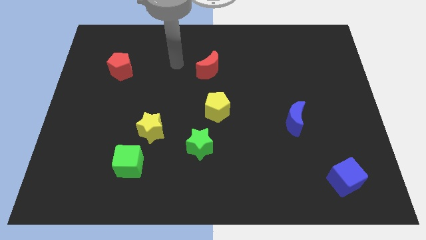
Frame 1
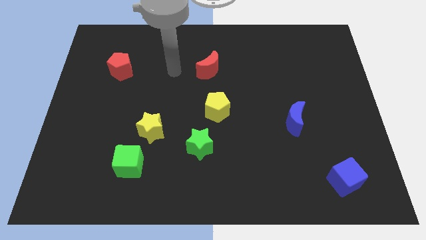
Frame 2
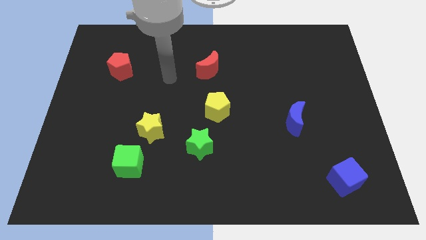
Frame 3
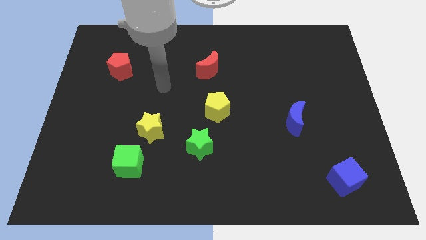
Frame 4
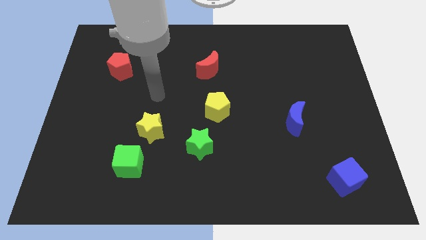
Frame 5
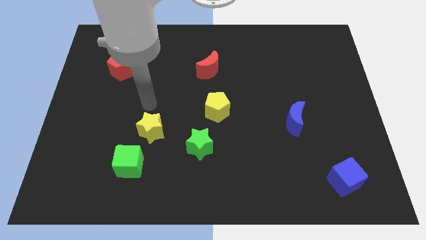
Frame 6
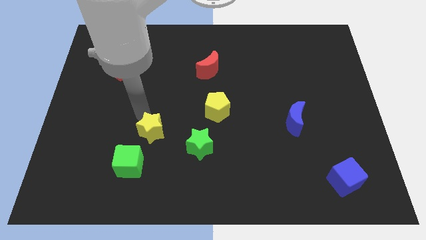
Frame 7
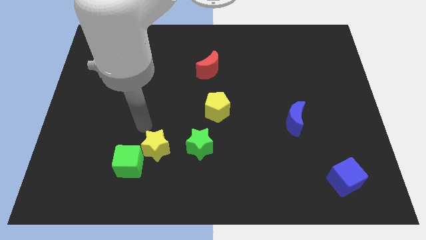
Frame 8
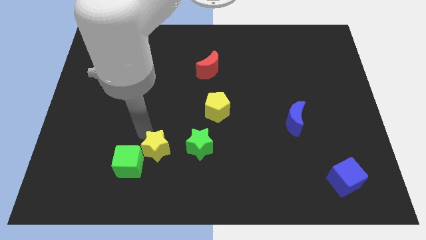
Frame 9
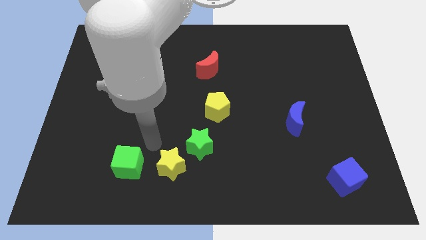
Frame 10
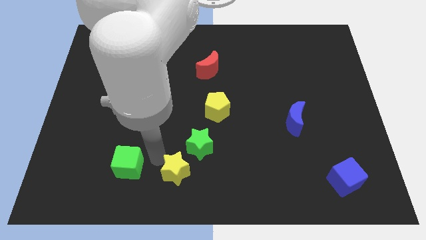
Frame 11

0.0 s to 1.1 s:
pull the green cube apart from the yellow star

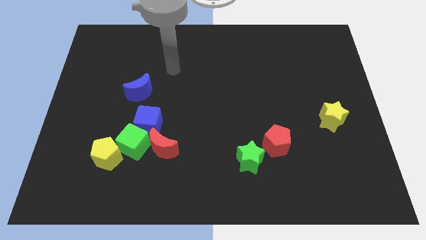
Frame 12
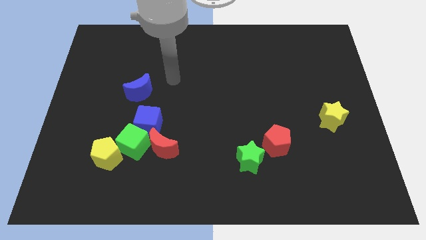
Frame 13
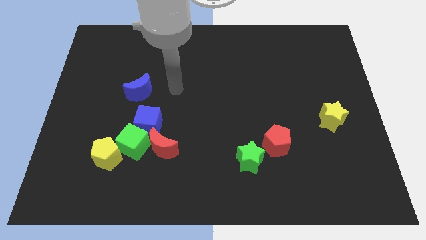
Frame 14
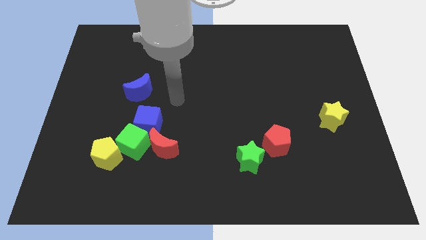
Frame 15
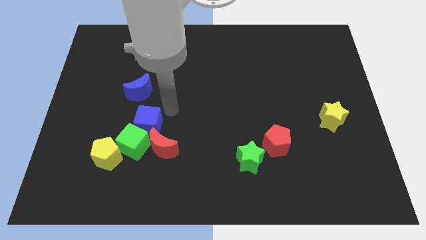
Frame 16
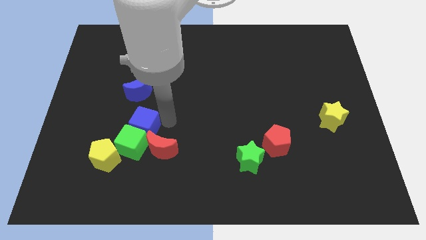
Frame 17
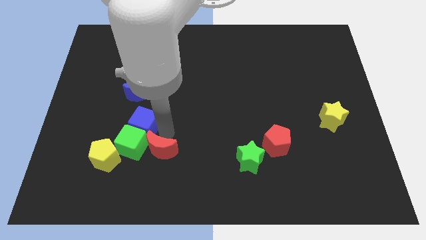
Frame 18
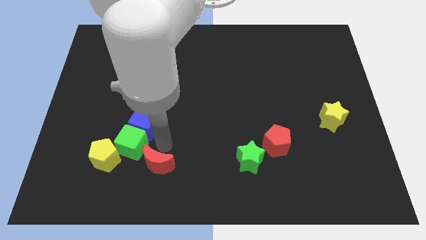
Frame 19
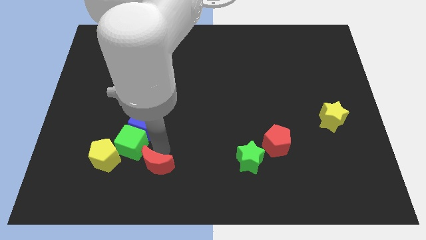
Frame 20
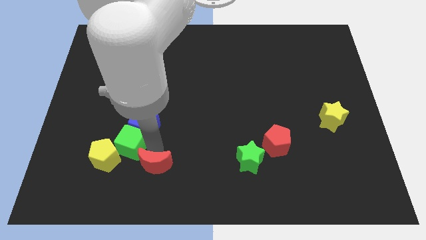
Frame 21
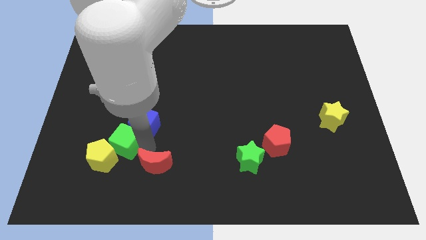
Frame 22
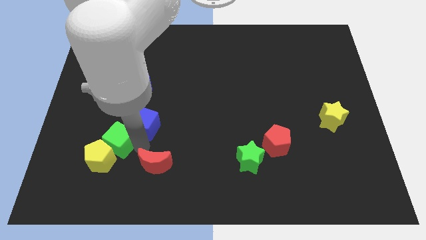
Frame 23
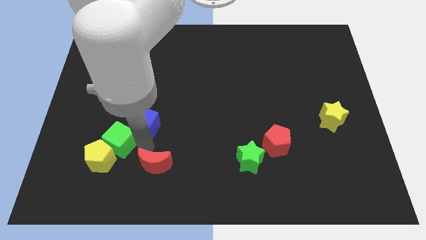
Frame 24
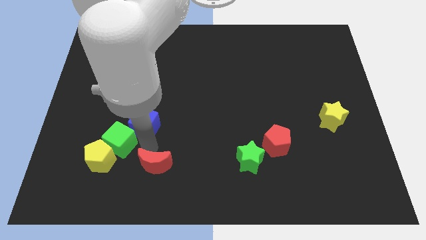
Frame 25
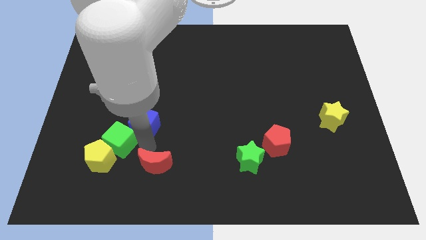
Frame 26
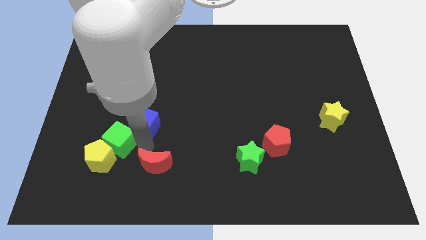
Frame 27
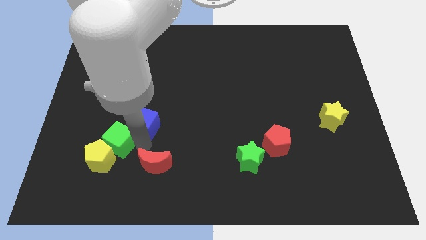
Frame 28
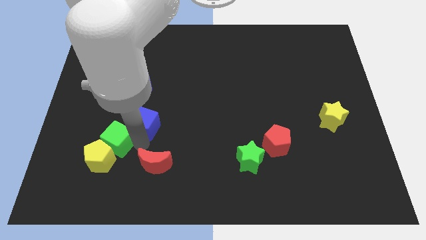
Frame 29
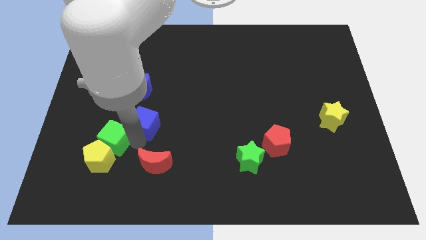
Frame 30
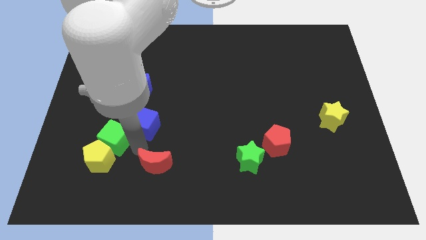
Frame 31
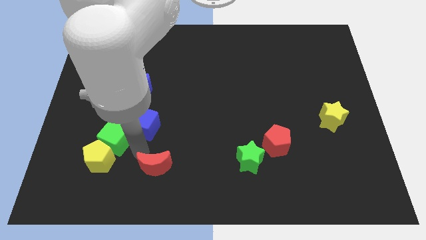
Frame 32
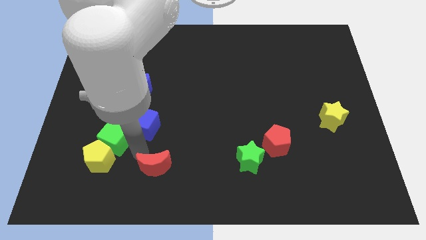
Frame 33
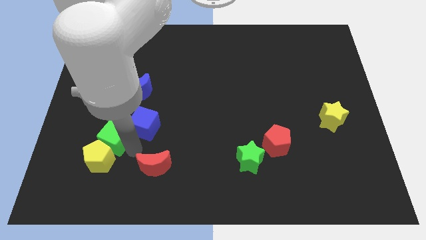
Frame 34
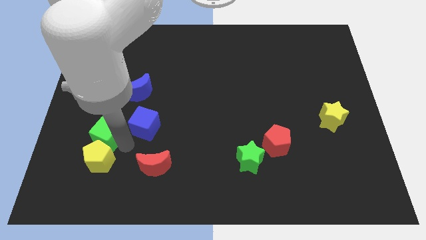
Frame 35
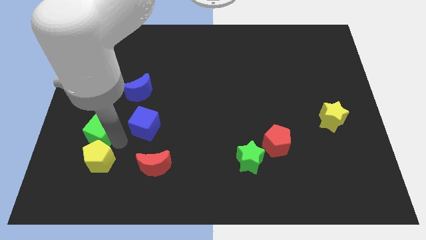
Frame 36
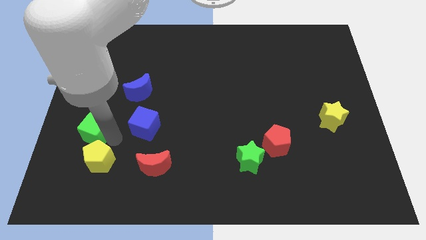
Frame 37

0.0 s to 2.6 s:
pull the green cube apart from the blue cube, yellow pentagon, and red moon

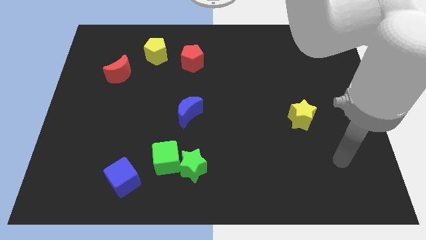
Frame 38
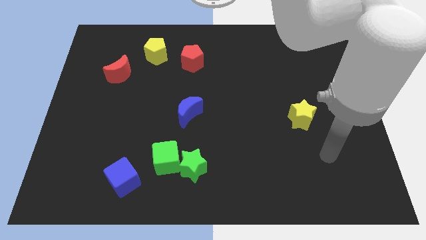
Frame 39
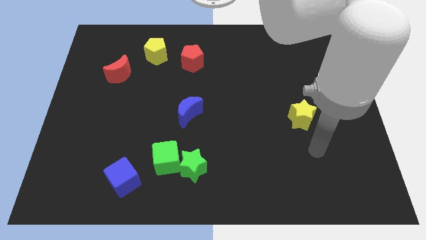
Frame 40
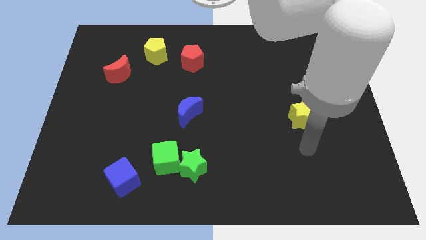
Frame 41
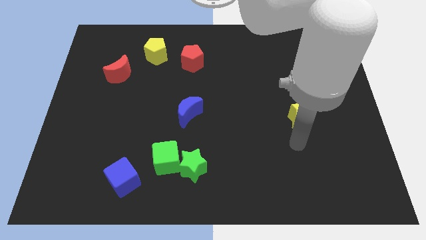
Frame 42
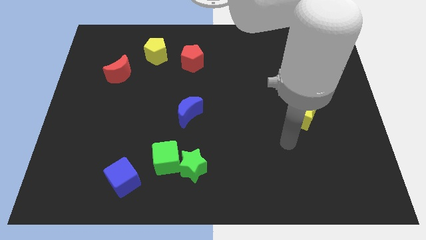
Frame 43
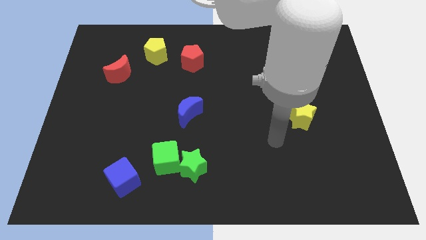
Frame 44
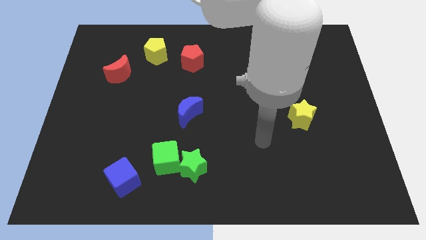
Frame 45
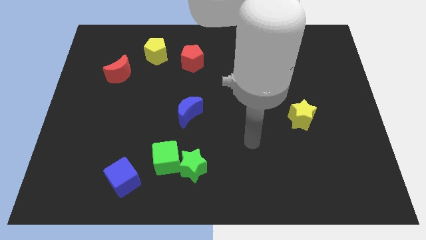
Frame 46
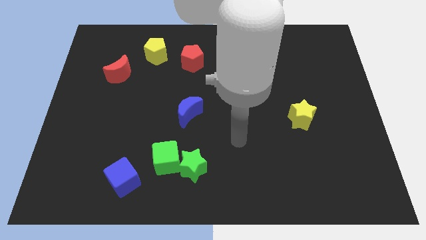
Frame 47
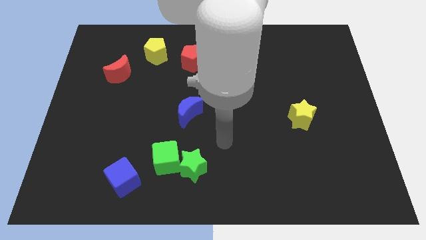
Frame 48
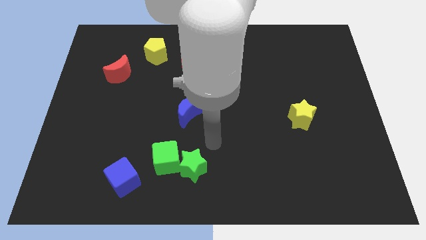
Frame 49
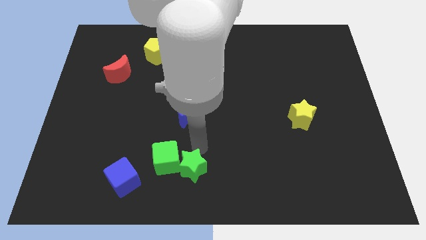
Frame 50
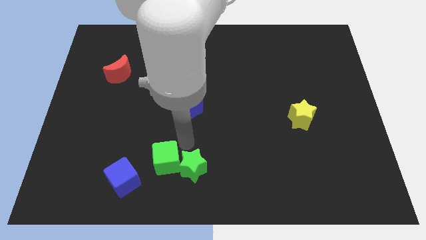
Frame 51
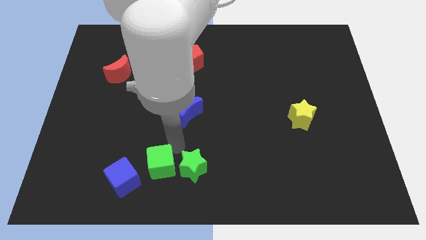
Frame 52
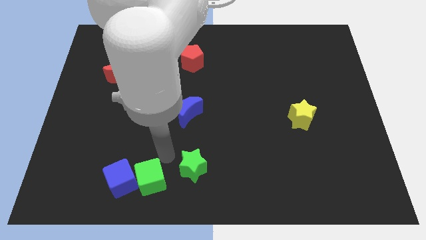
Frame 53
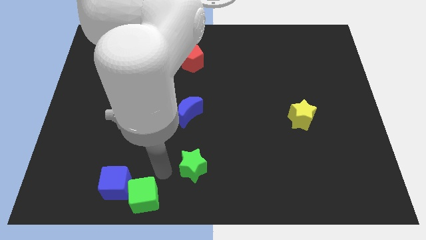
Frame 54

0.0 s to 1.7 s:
separate the green star from the green cube

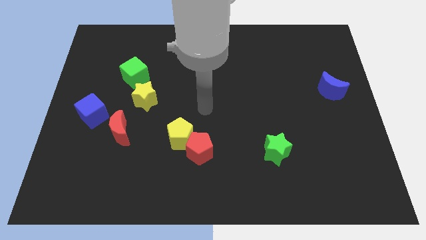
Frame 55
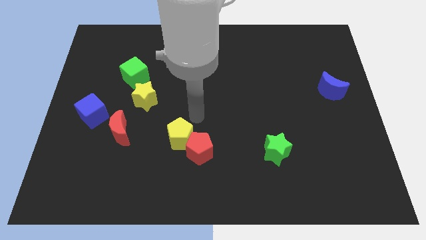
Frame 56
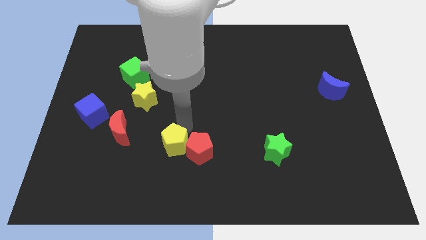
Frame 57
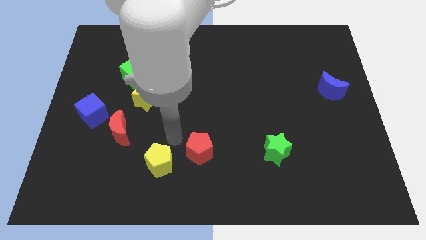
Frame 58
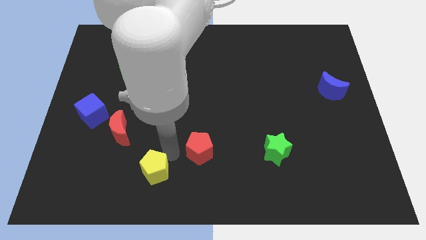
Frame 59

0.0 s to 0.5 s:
separate the red pentagon from the yellow pentagon

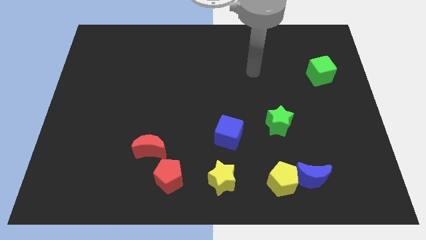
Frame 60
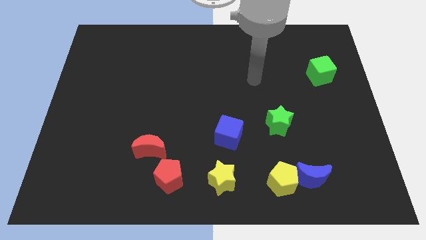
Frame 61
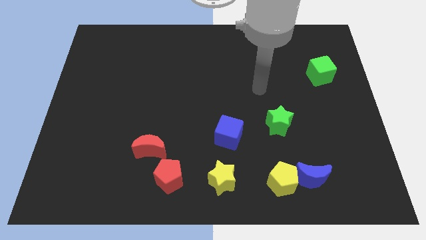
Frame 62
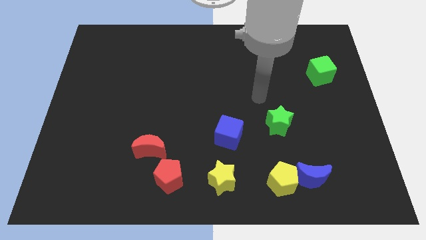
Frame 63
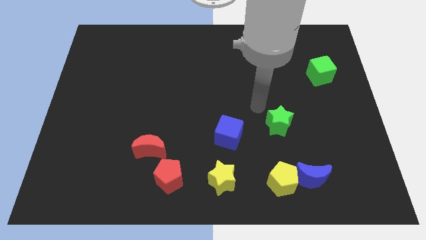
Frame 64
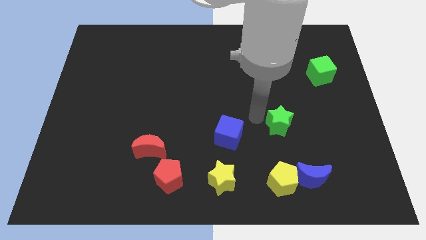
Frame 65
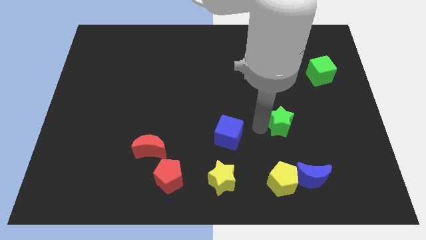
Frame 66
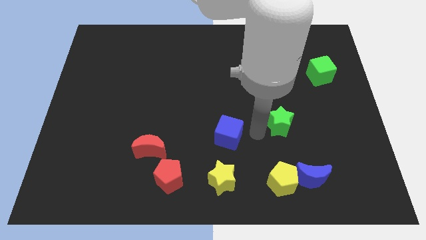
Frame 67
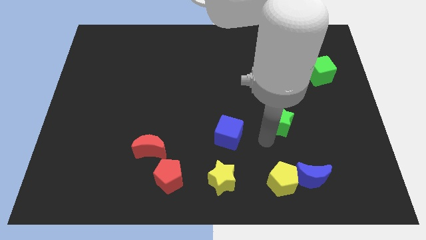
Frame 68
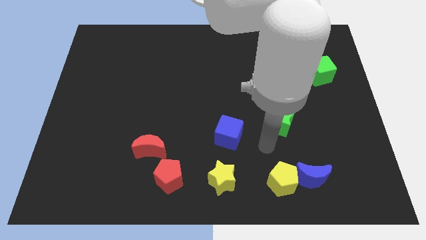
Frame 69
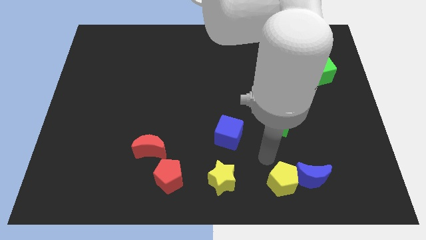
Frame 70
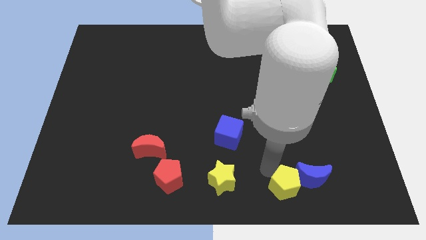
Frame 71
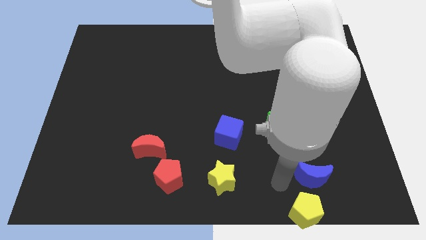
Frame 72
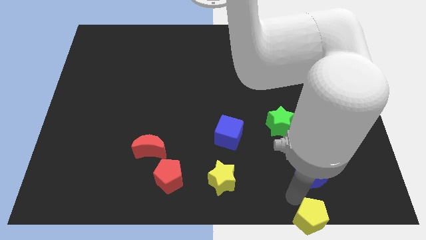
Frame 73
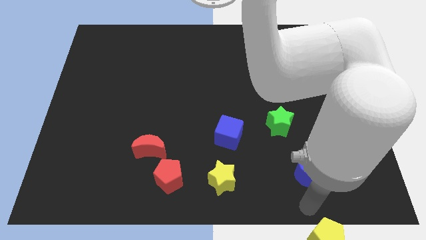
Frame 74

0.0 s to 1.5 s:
pull the blue moon apart from the yellow pentagon

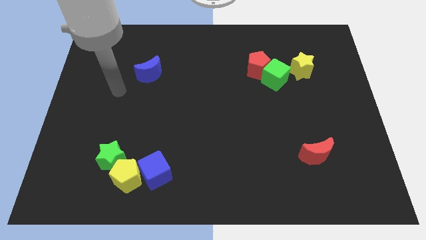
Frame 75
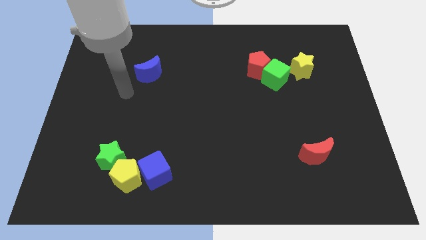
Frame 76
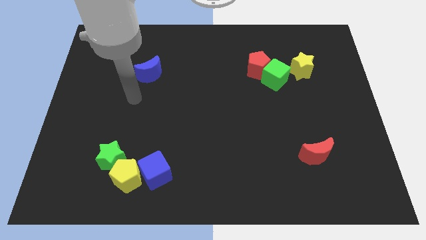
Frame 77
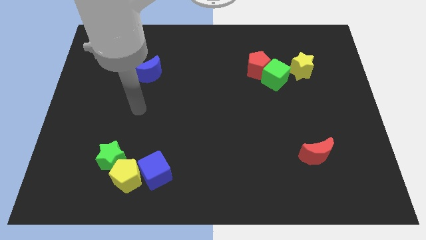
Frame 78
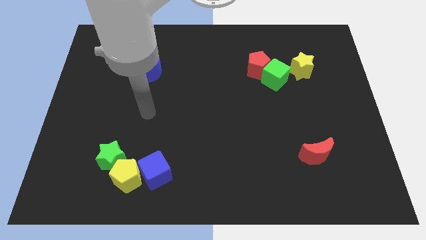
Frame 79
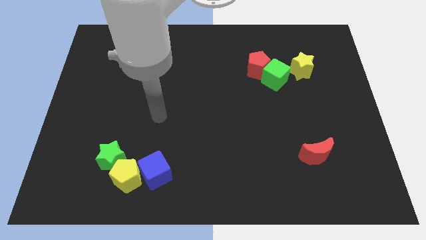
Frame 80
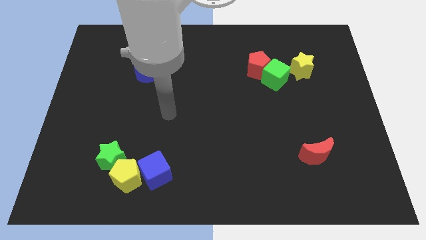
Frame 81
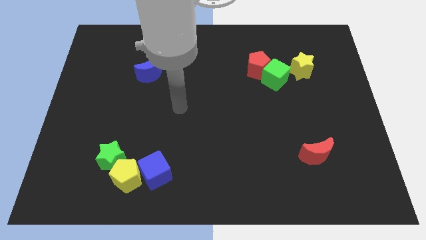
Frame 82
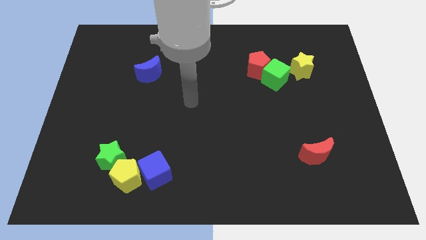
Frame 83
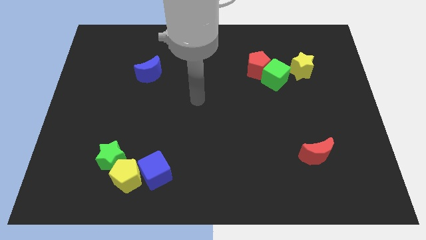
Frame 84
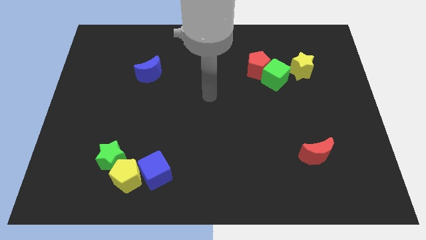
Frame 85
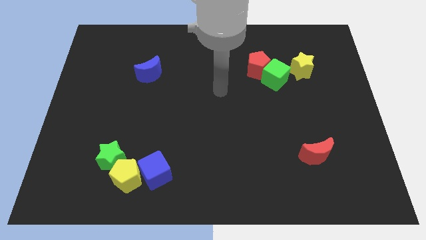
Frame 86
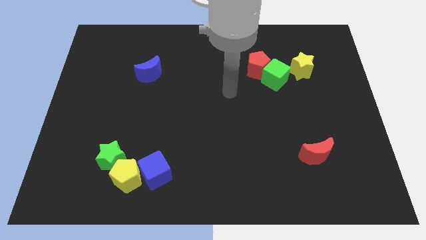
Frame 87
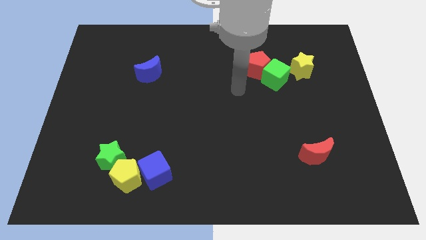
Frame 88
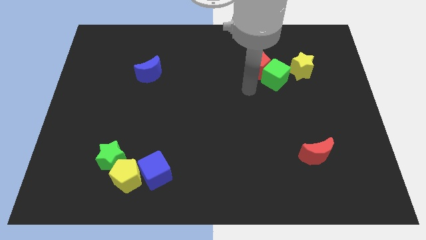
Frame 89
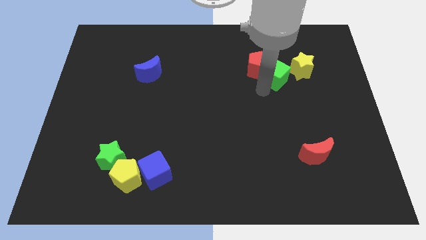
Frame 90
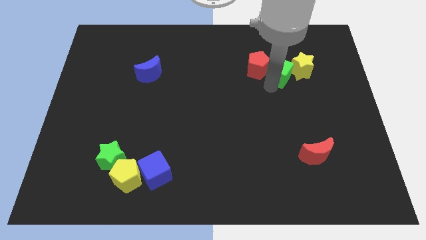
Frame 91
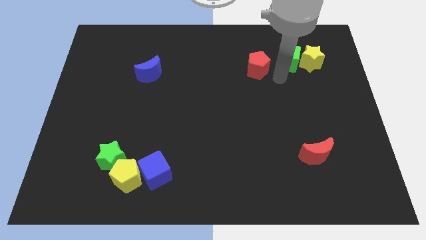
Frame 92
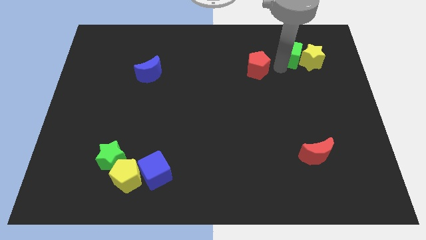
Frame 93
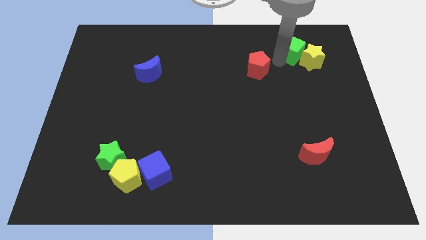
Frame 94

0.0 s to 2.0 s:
pull the red pentagon apart from the green cube
